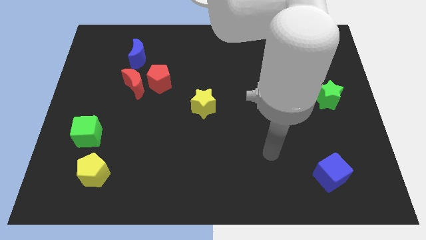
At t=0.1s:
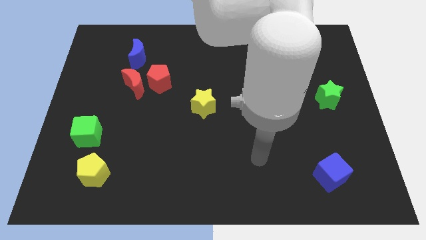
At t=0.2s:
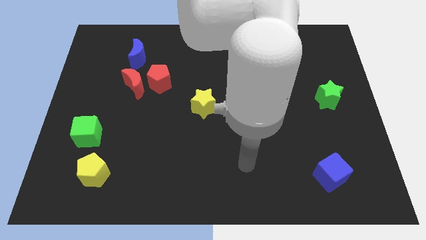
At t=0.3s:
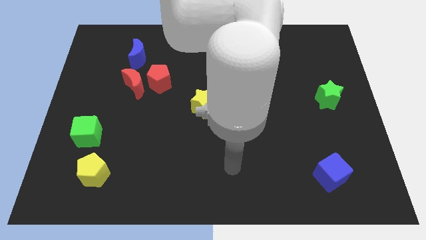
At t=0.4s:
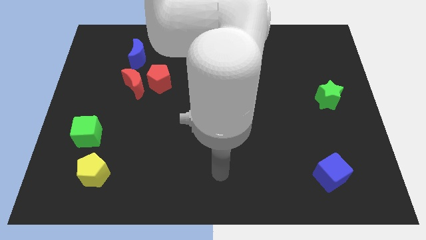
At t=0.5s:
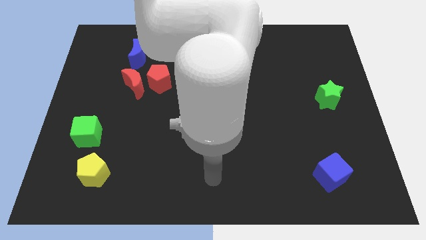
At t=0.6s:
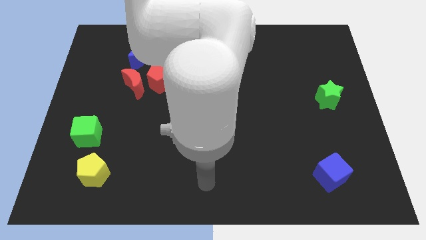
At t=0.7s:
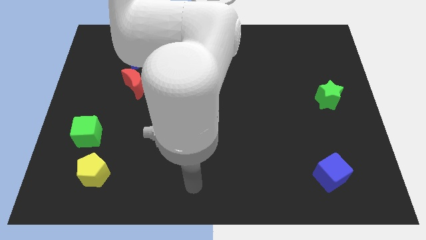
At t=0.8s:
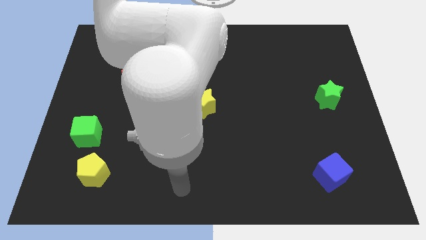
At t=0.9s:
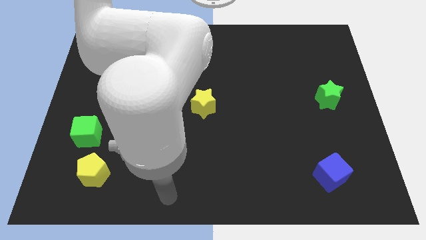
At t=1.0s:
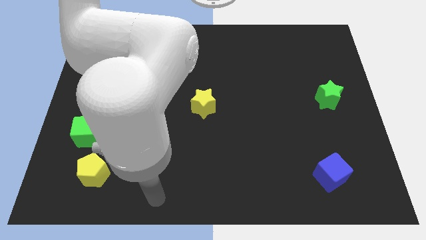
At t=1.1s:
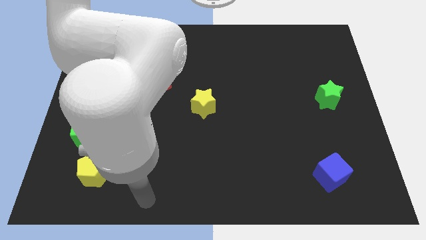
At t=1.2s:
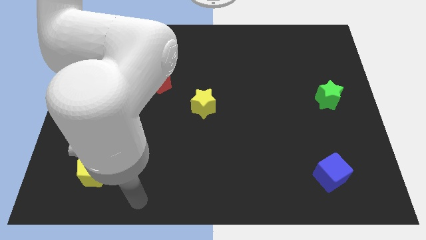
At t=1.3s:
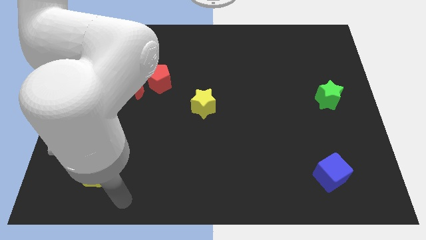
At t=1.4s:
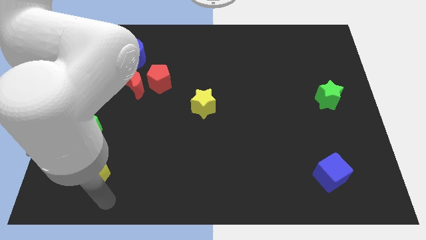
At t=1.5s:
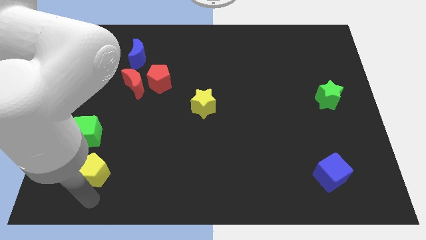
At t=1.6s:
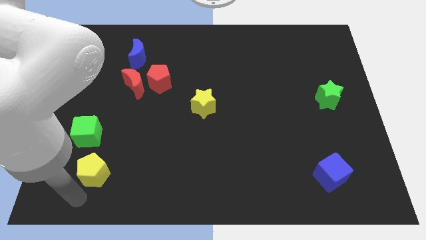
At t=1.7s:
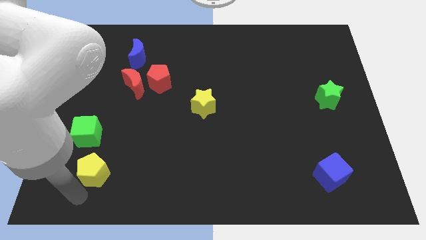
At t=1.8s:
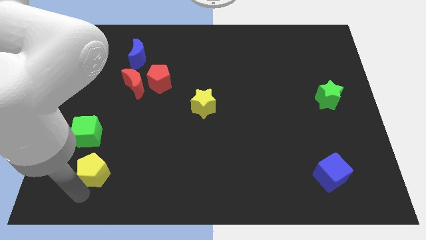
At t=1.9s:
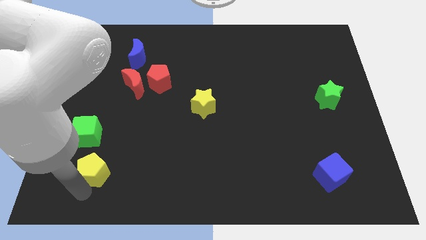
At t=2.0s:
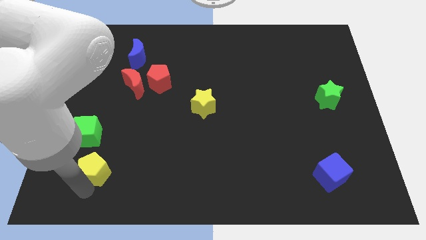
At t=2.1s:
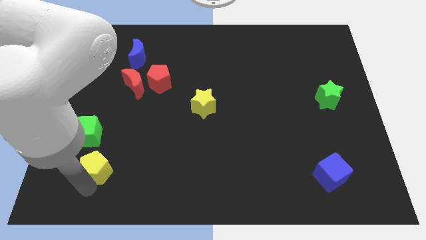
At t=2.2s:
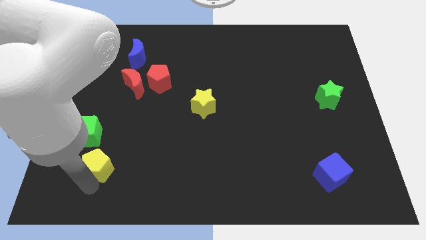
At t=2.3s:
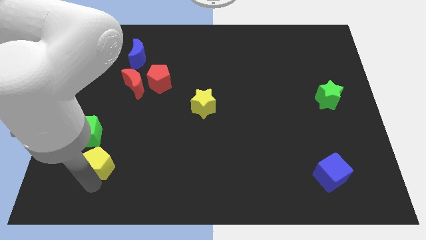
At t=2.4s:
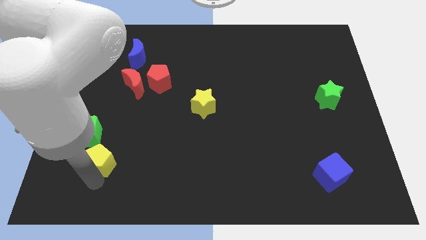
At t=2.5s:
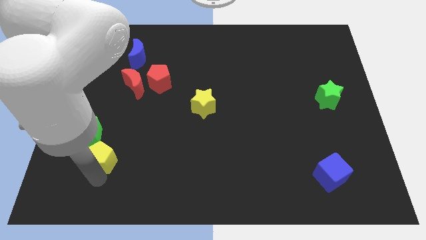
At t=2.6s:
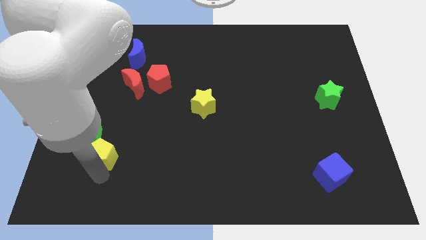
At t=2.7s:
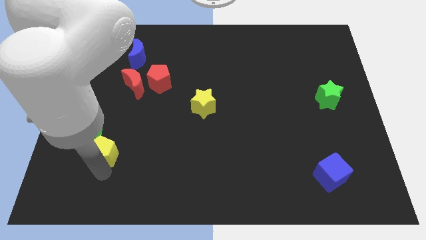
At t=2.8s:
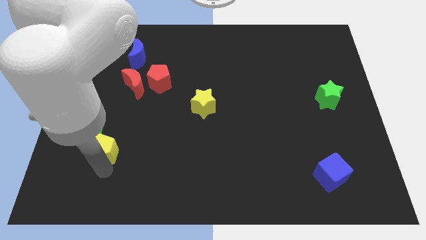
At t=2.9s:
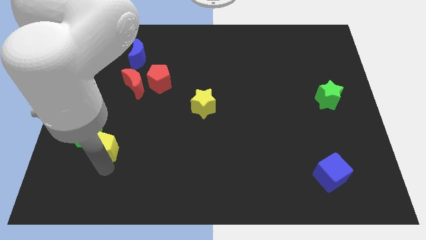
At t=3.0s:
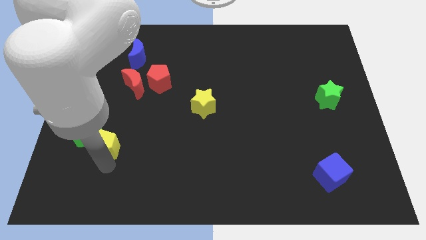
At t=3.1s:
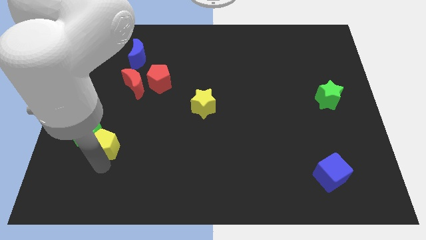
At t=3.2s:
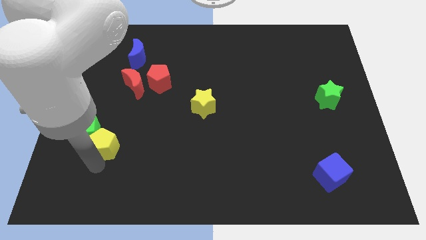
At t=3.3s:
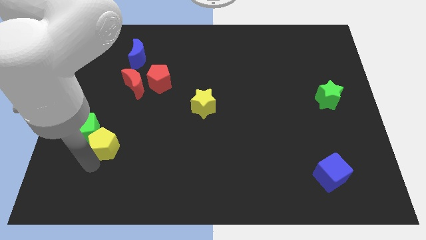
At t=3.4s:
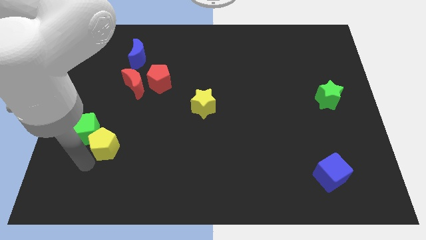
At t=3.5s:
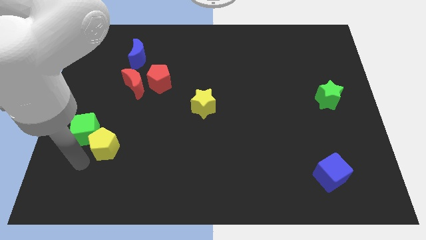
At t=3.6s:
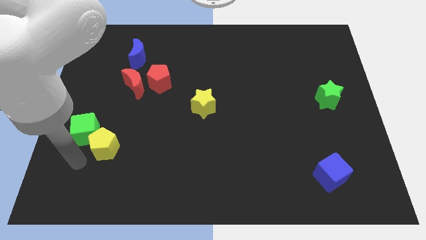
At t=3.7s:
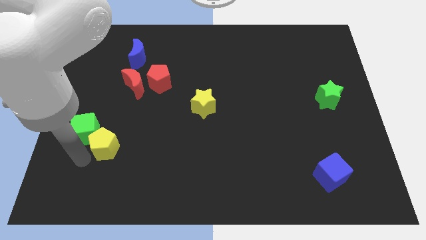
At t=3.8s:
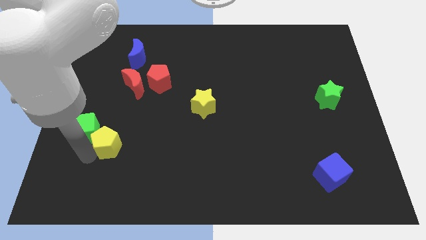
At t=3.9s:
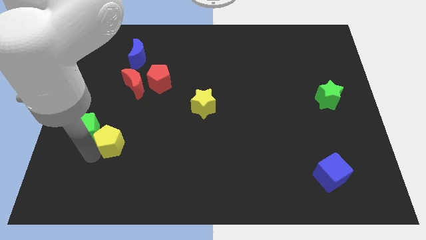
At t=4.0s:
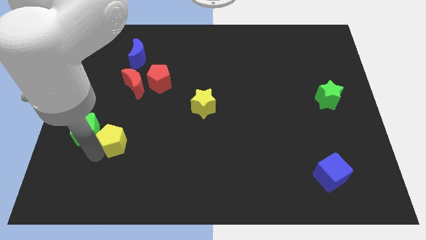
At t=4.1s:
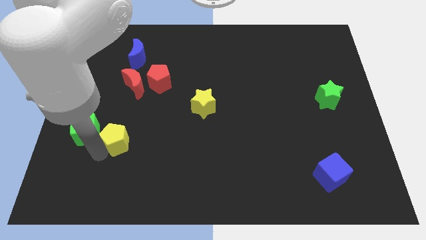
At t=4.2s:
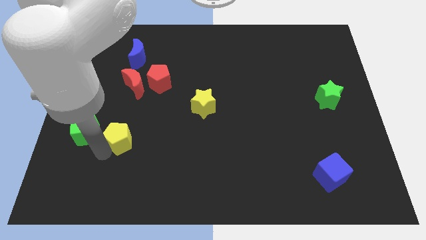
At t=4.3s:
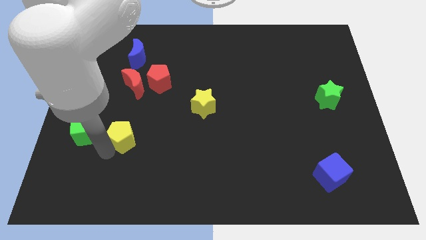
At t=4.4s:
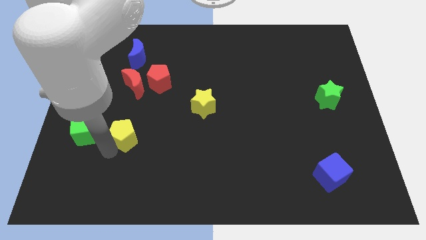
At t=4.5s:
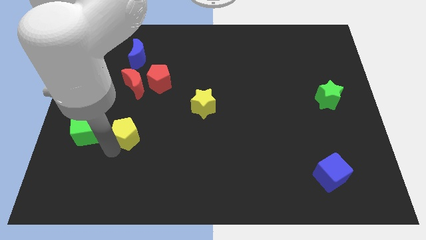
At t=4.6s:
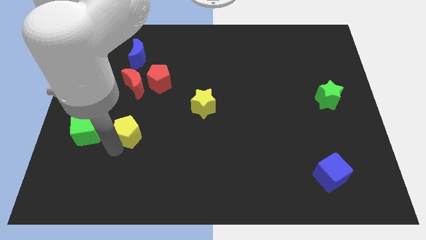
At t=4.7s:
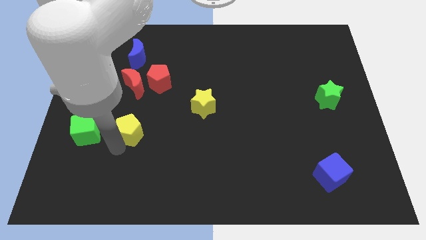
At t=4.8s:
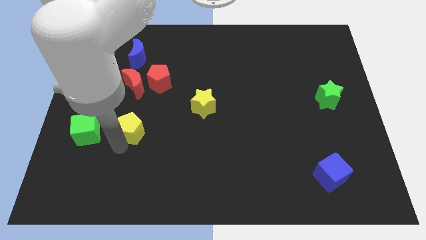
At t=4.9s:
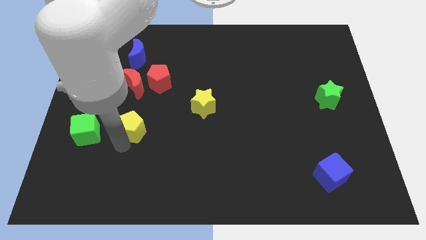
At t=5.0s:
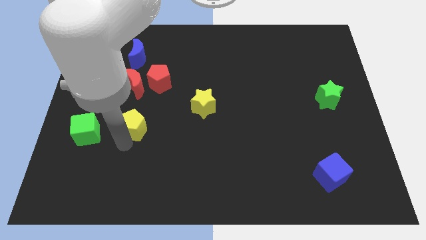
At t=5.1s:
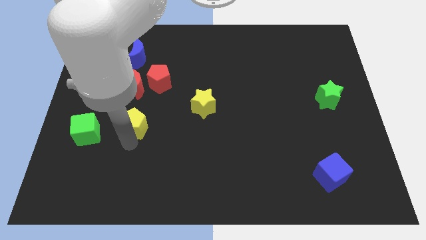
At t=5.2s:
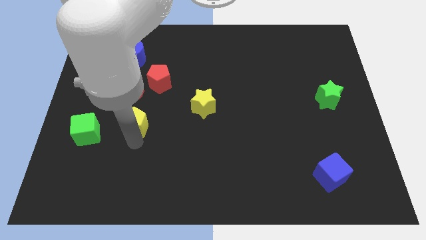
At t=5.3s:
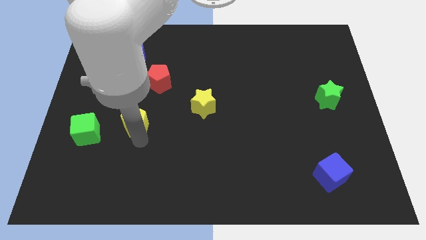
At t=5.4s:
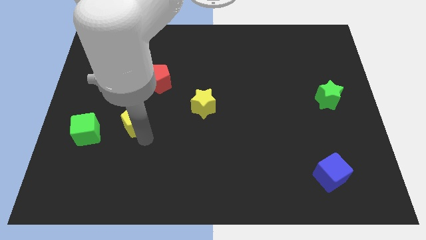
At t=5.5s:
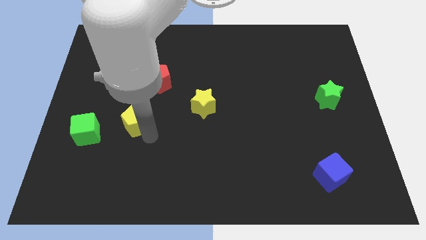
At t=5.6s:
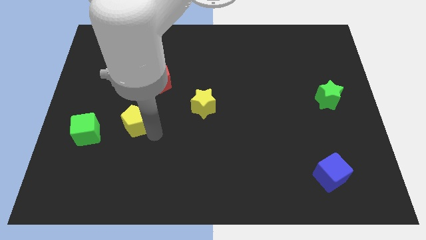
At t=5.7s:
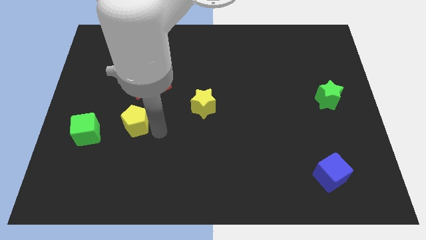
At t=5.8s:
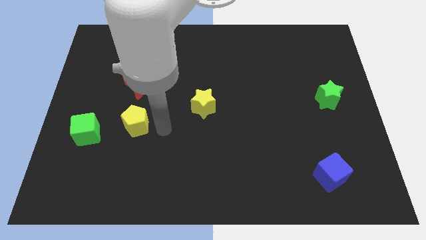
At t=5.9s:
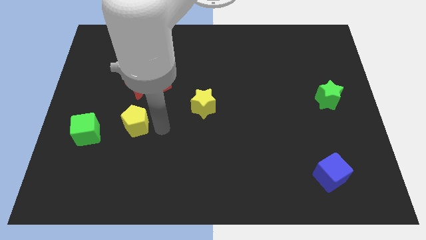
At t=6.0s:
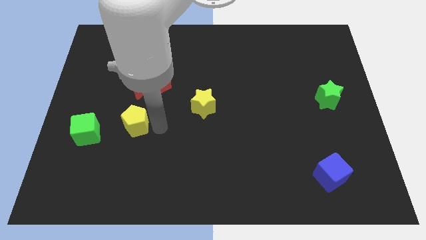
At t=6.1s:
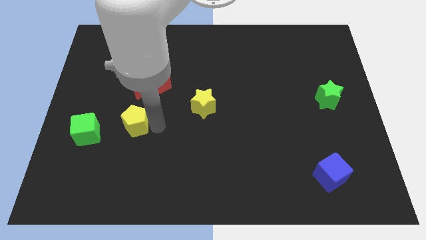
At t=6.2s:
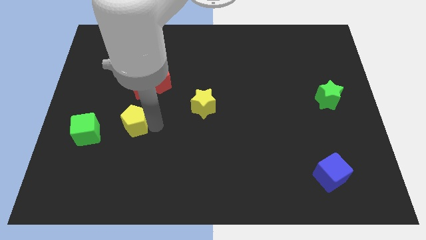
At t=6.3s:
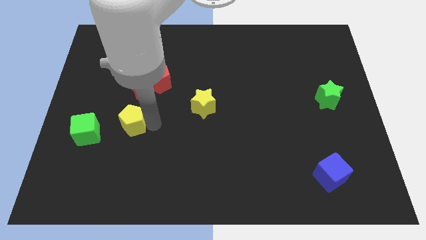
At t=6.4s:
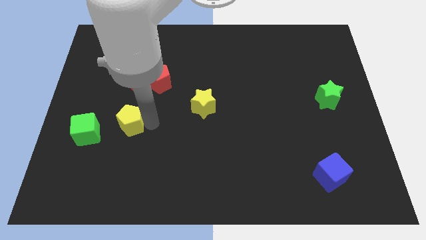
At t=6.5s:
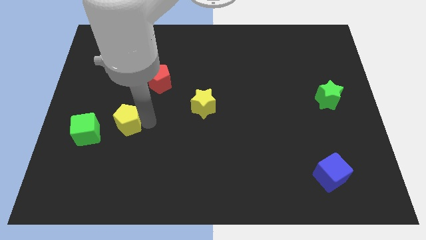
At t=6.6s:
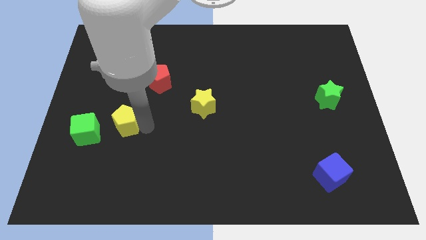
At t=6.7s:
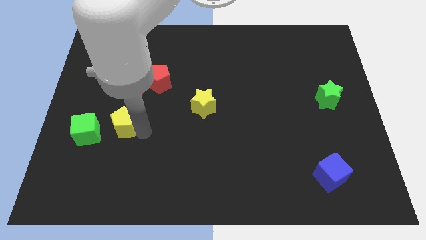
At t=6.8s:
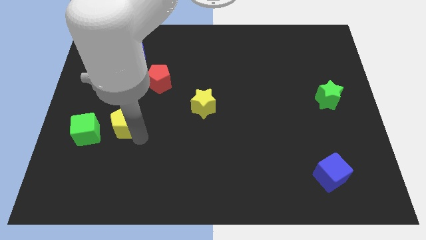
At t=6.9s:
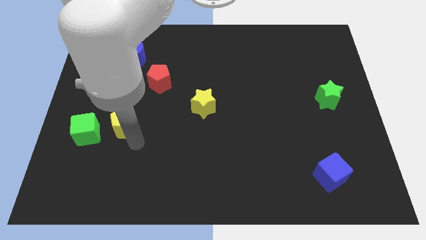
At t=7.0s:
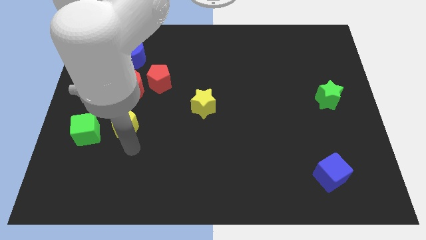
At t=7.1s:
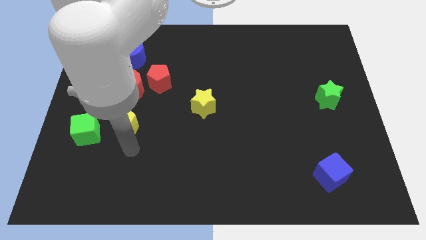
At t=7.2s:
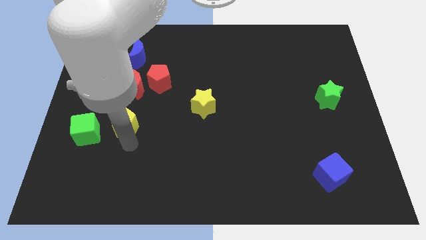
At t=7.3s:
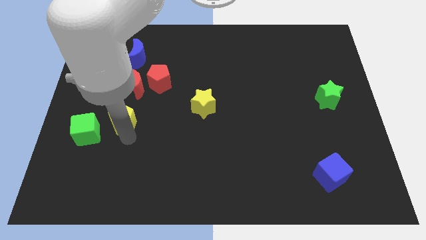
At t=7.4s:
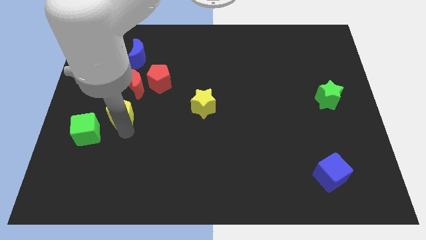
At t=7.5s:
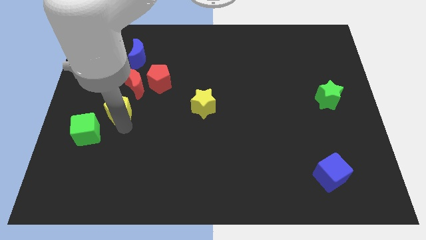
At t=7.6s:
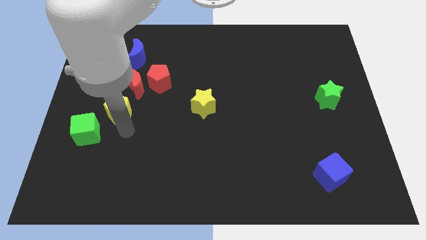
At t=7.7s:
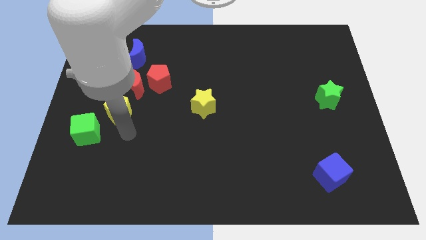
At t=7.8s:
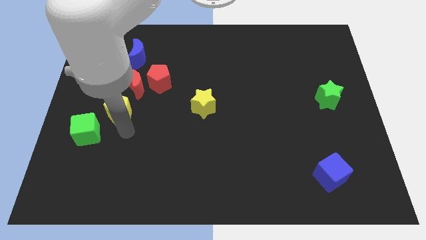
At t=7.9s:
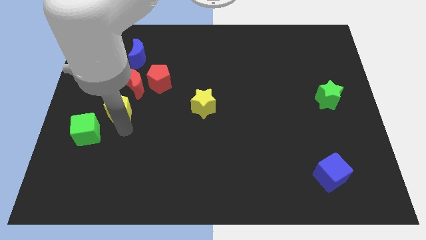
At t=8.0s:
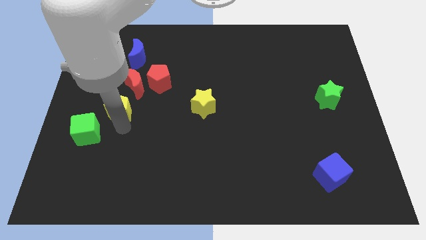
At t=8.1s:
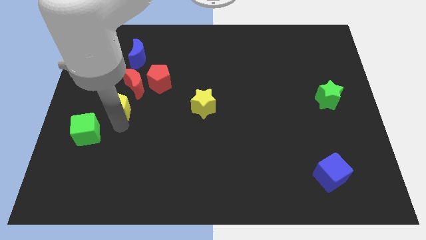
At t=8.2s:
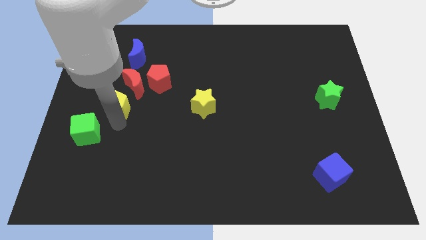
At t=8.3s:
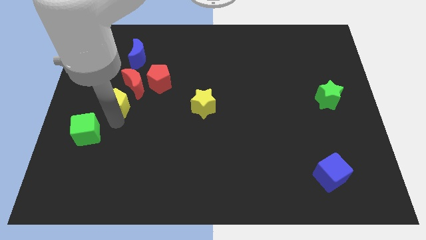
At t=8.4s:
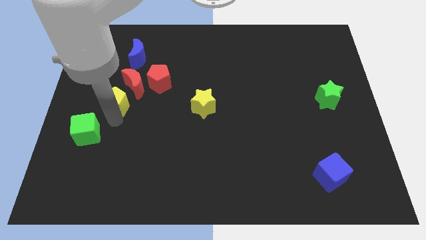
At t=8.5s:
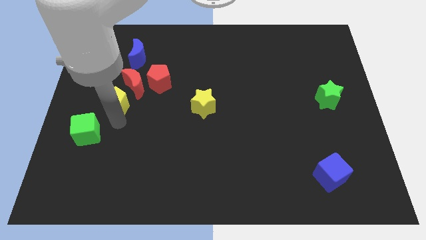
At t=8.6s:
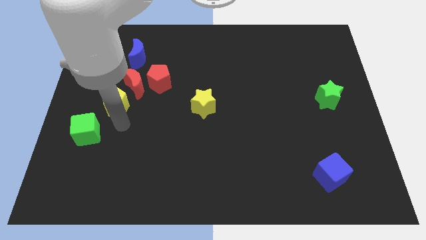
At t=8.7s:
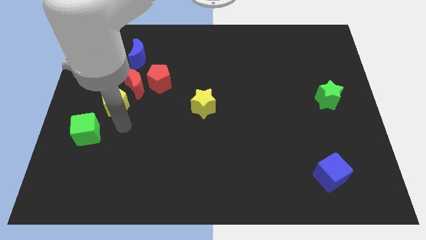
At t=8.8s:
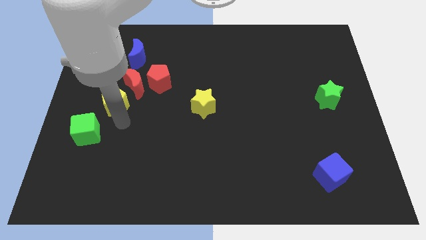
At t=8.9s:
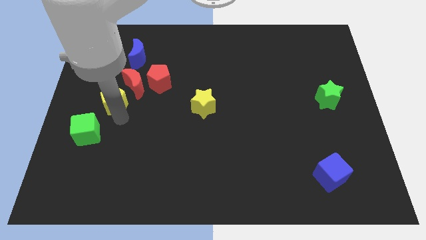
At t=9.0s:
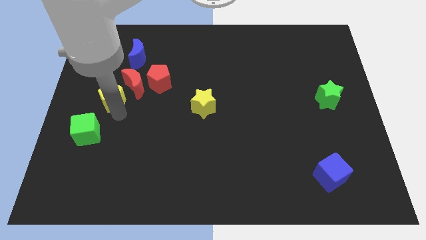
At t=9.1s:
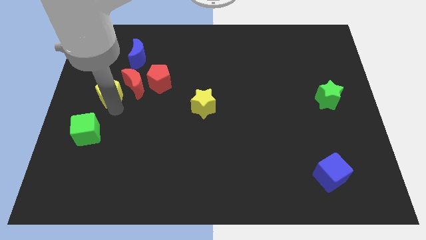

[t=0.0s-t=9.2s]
move the yellow pentagon upwards
